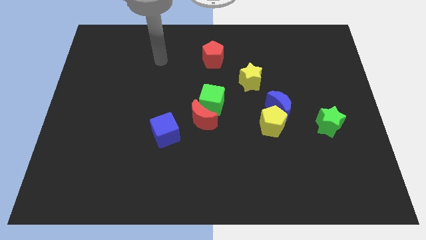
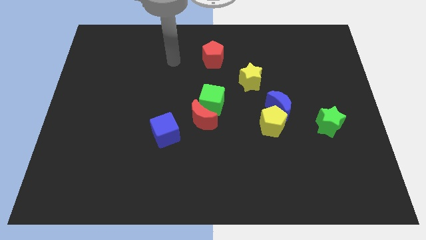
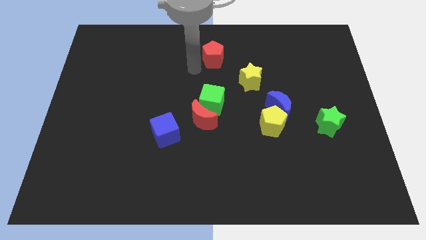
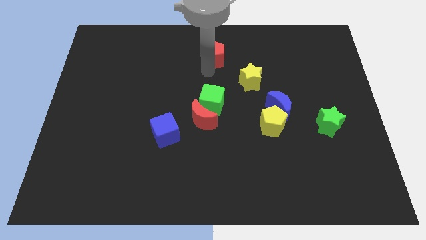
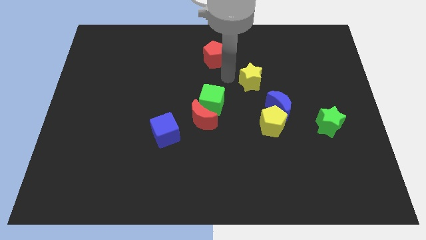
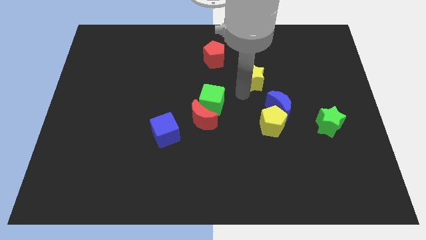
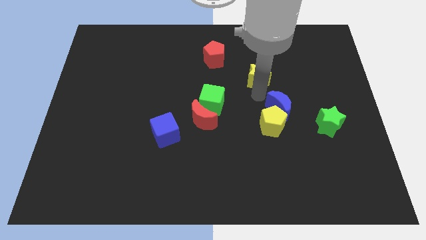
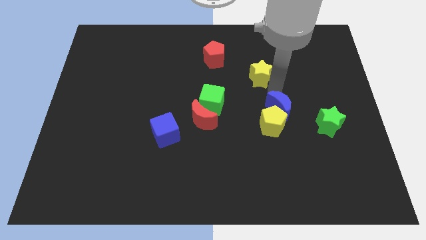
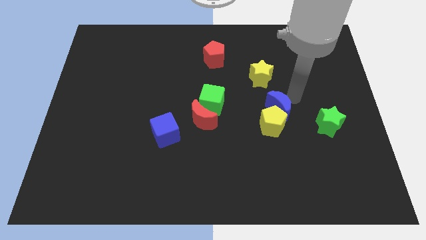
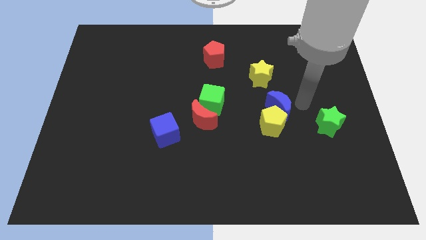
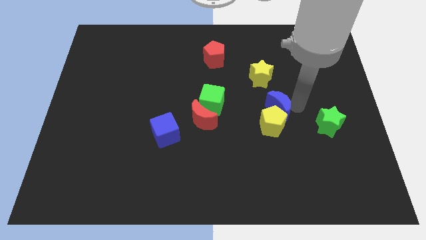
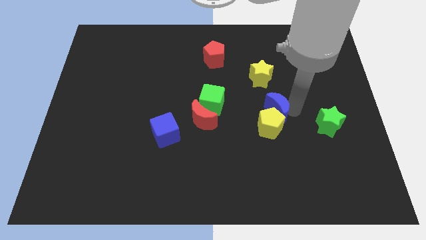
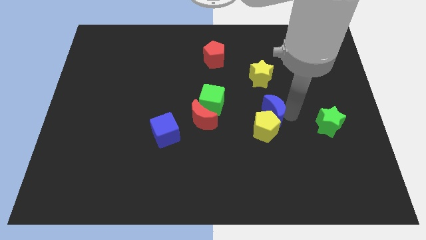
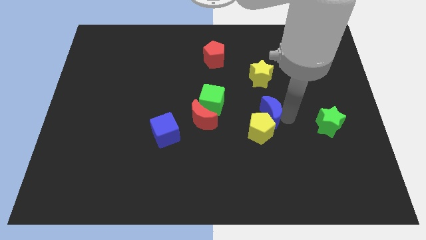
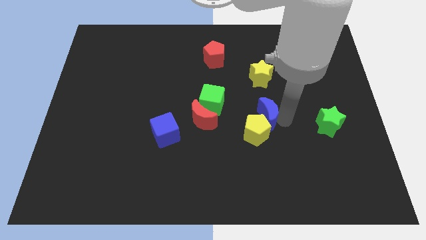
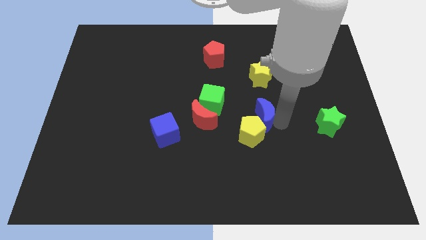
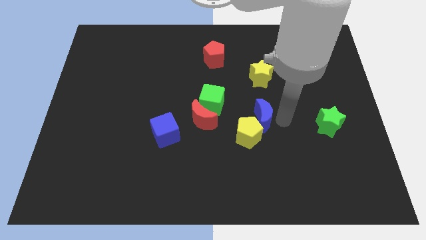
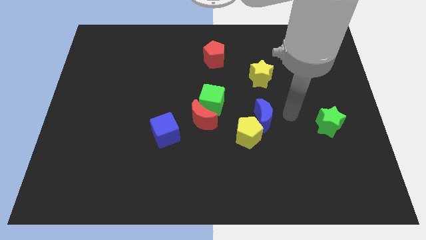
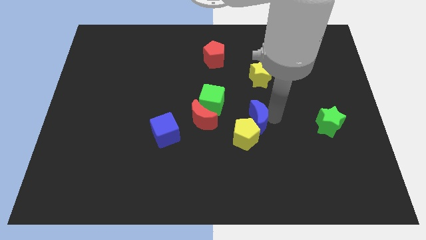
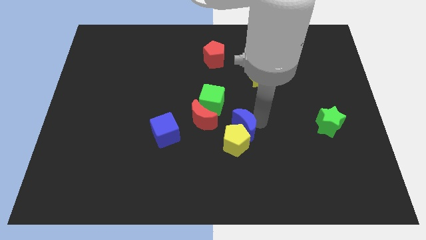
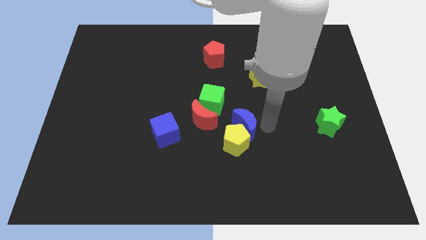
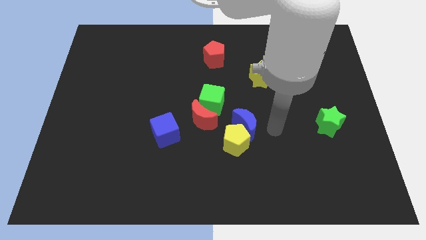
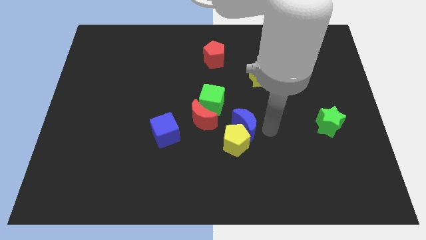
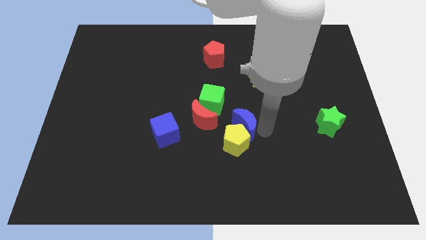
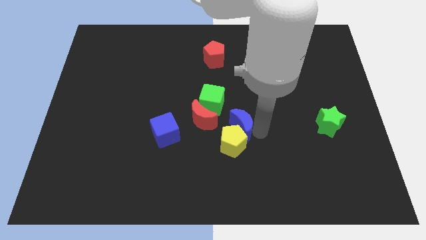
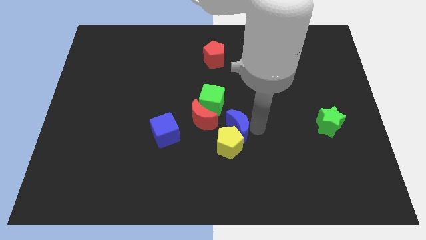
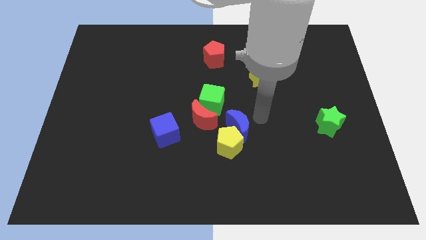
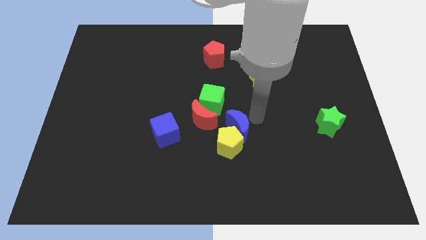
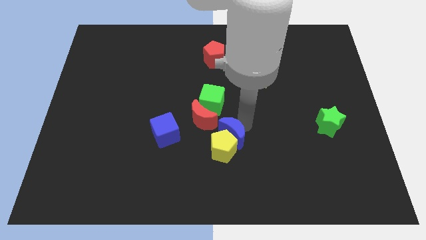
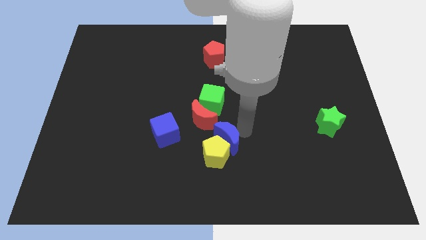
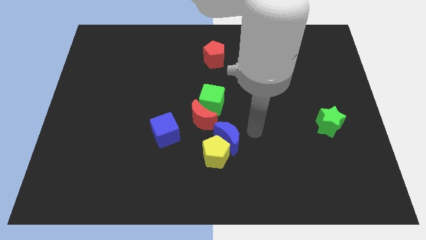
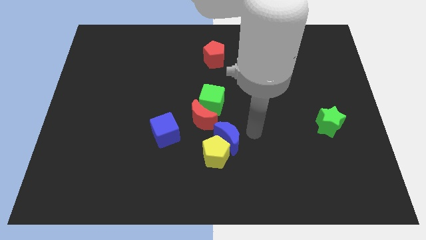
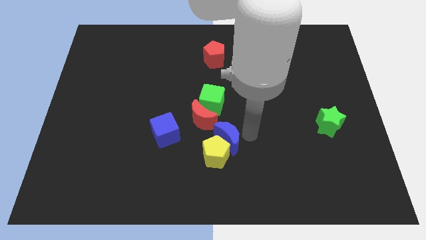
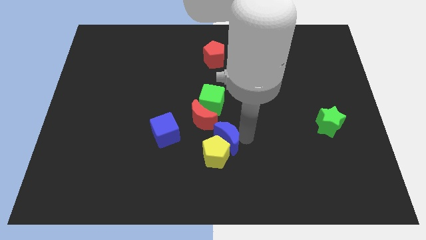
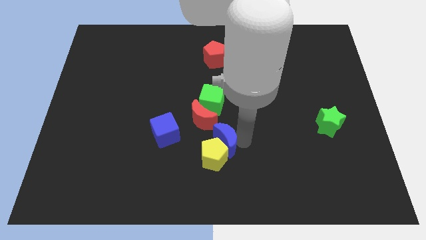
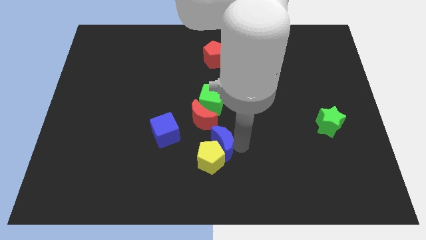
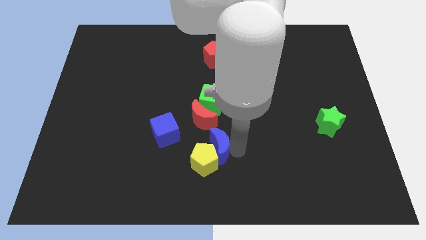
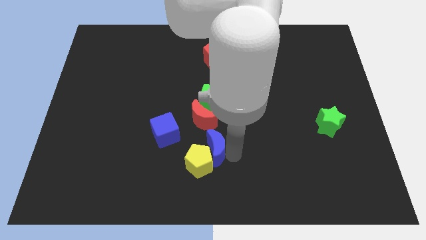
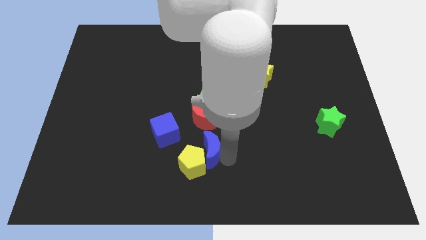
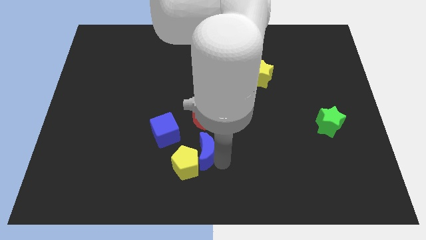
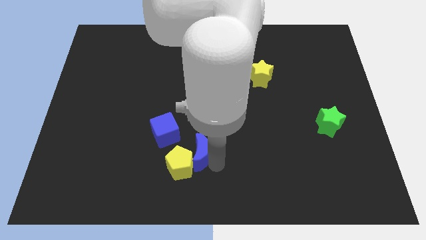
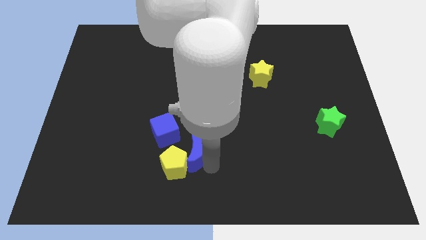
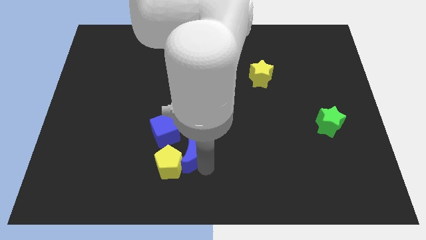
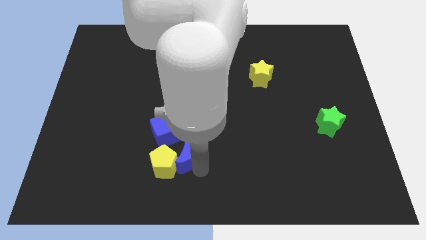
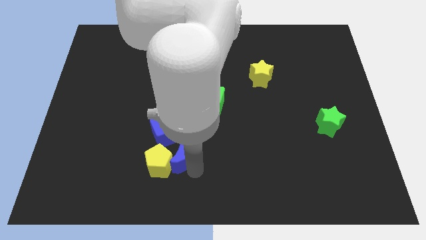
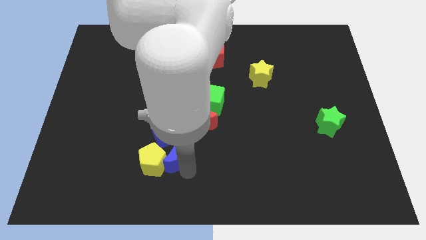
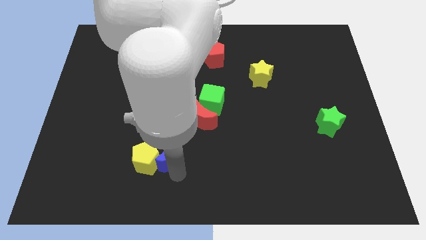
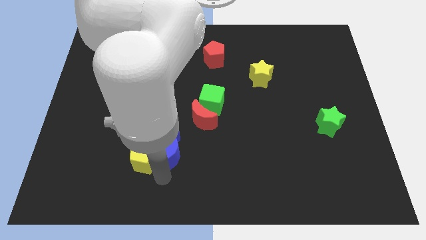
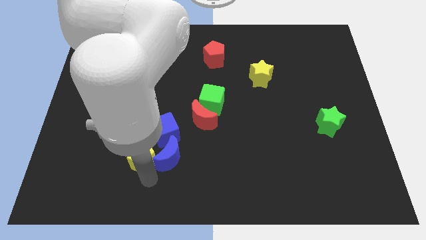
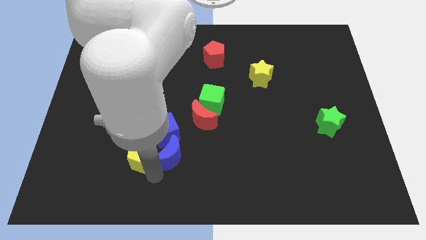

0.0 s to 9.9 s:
move the blue moon towards the blue cube

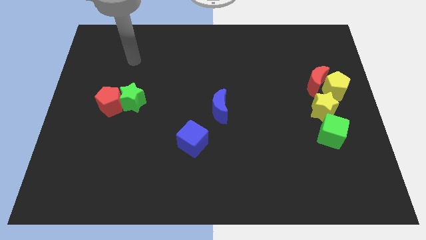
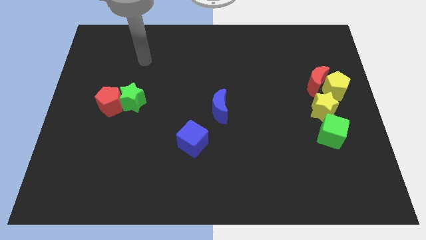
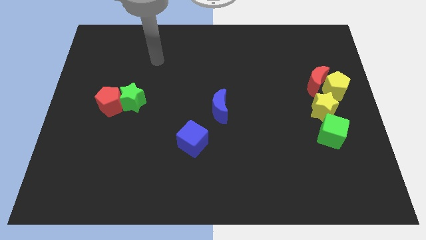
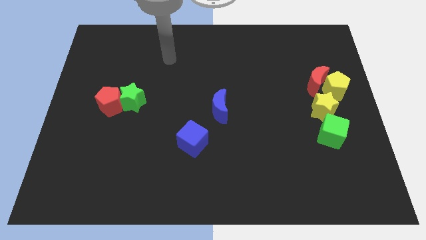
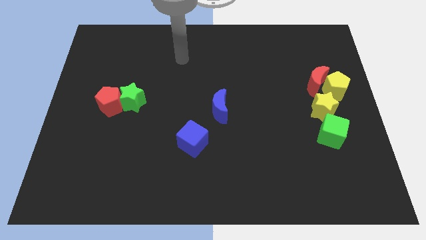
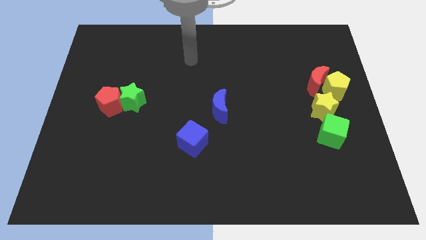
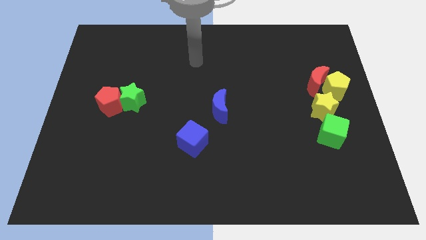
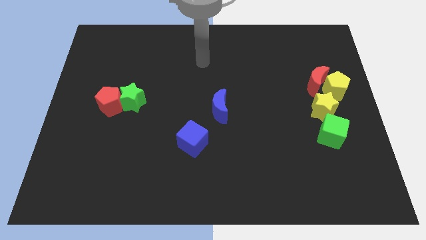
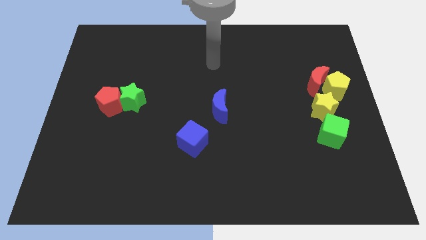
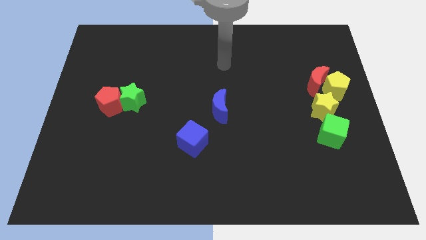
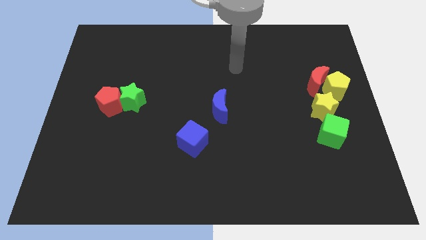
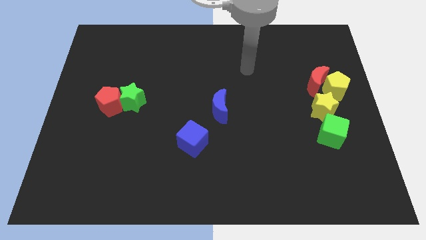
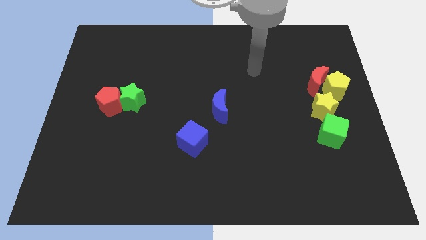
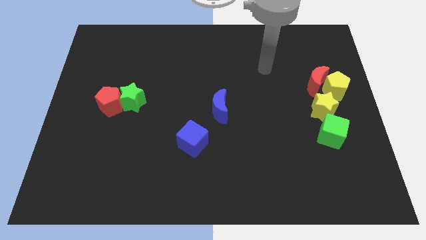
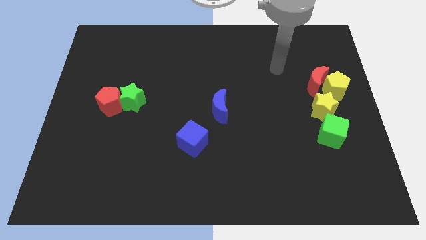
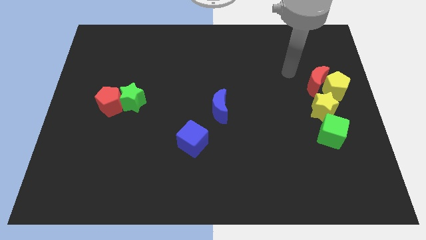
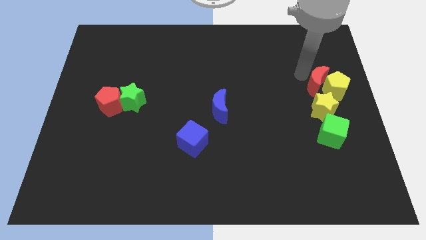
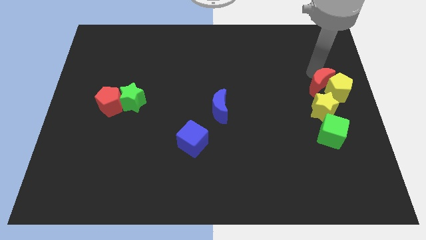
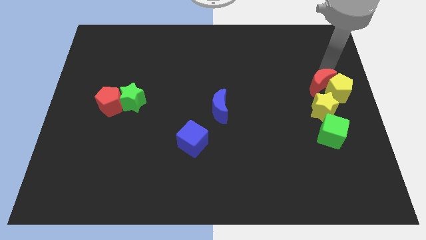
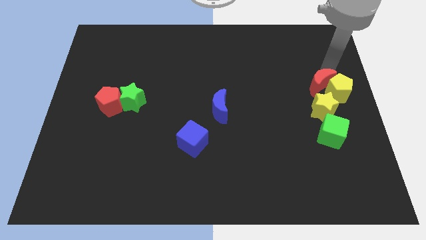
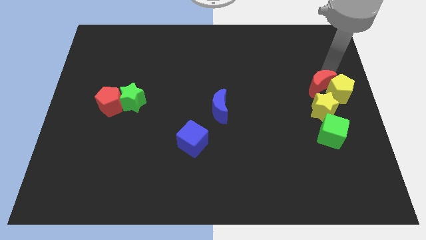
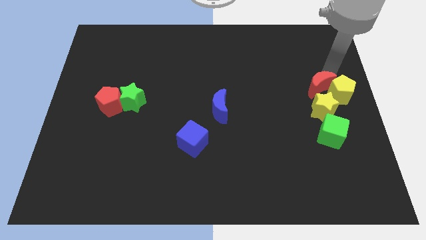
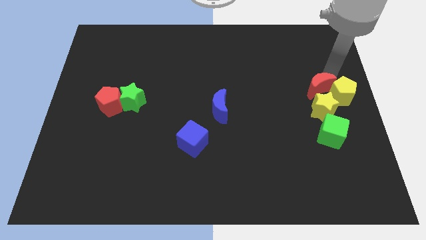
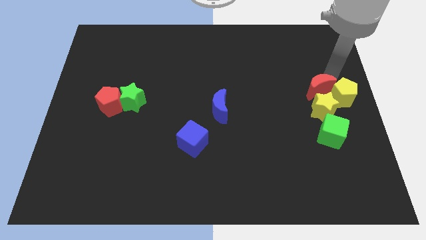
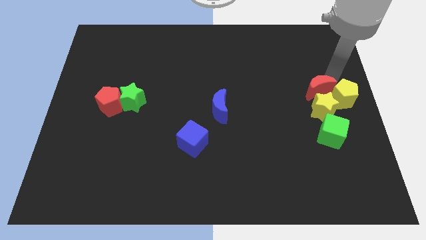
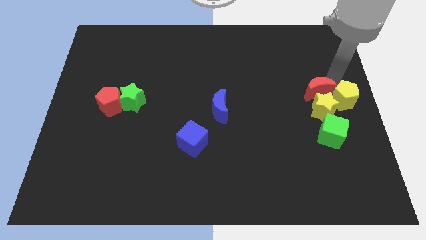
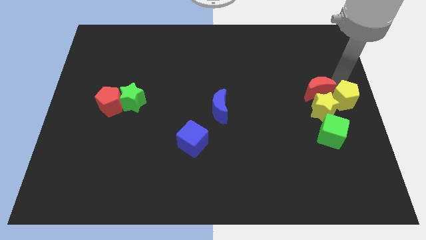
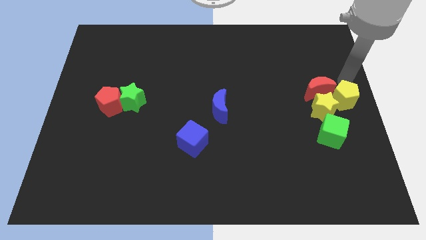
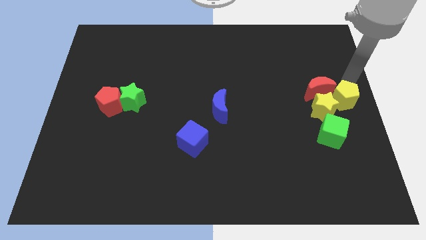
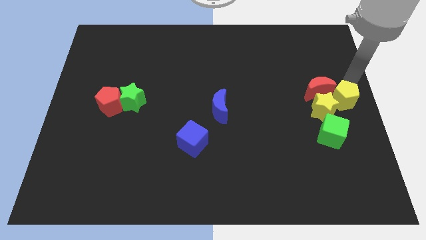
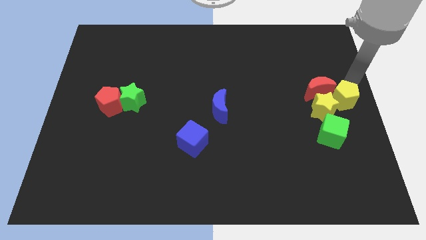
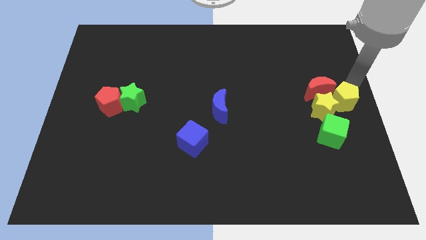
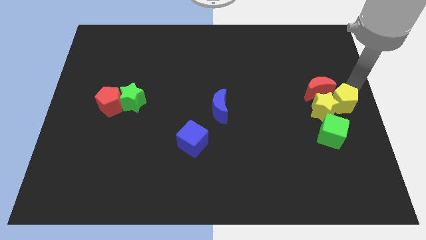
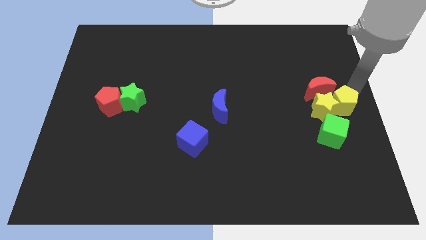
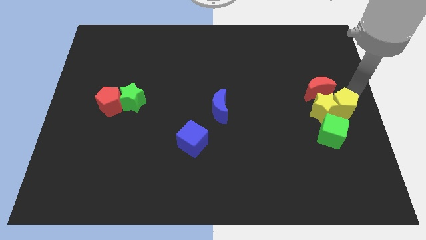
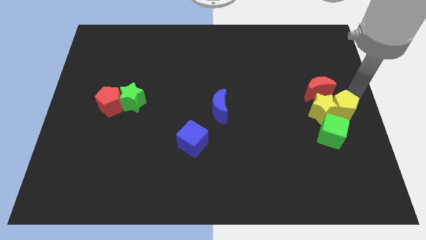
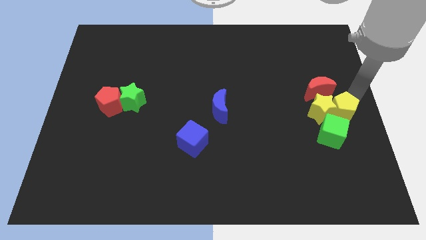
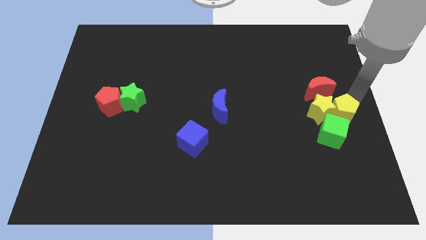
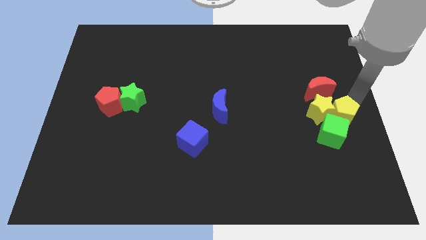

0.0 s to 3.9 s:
move the yellow pentagon close to the green cube
